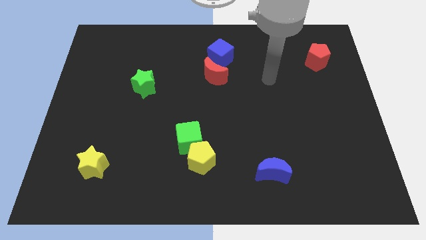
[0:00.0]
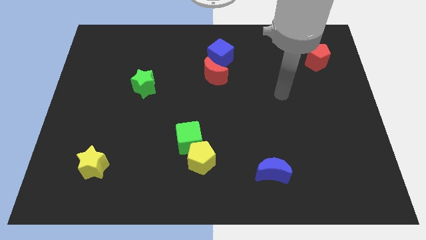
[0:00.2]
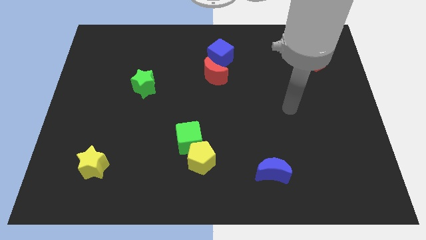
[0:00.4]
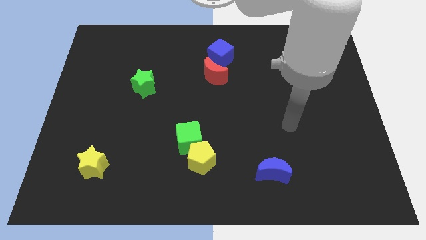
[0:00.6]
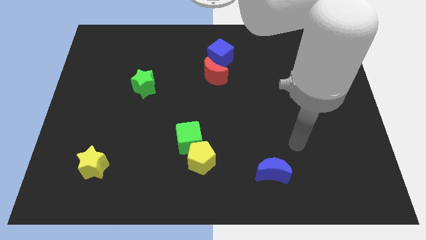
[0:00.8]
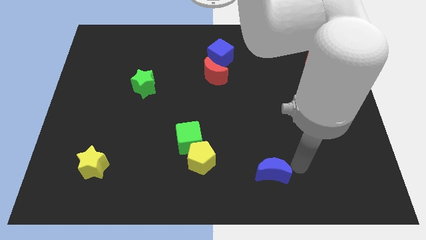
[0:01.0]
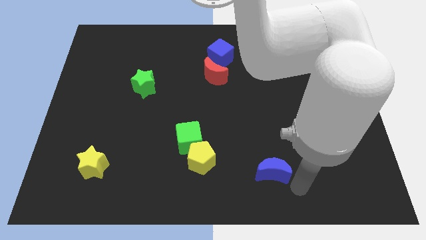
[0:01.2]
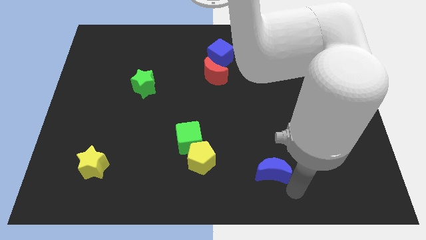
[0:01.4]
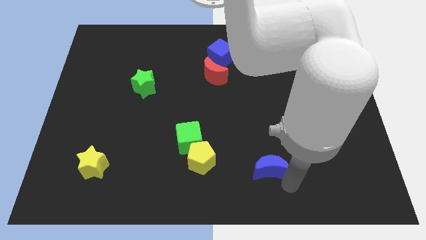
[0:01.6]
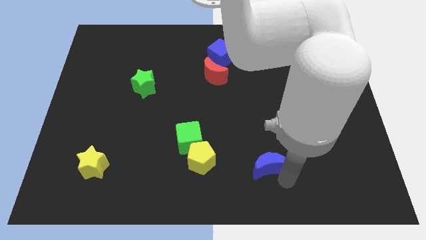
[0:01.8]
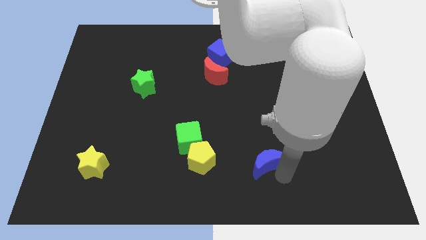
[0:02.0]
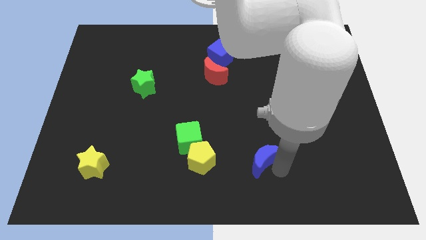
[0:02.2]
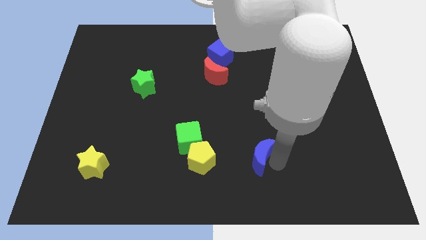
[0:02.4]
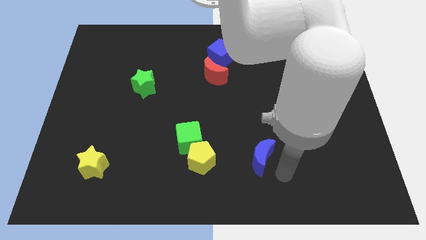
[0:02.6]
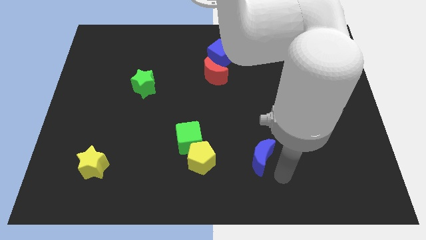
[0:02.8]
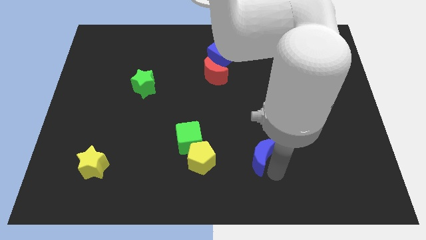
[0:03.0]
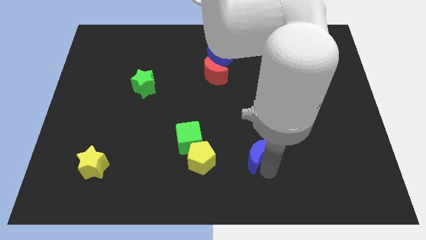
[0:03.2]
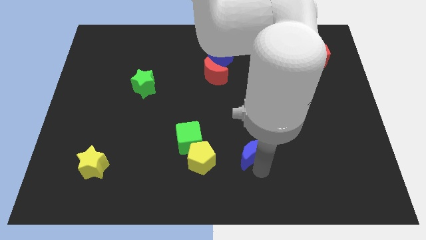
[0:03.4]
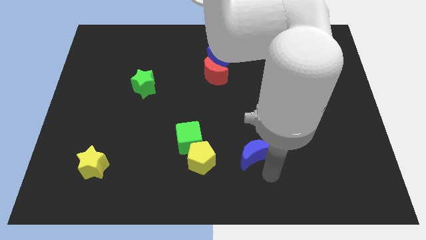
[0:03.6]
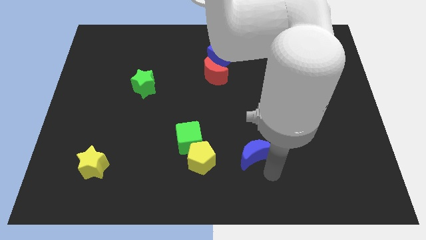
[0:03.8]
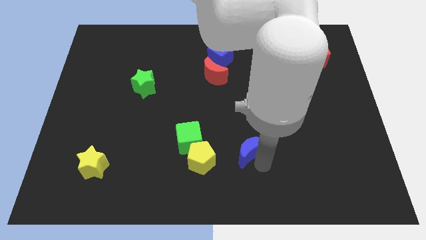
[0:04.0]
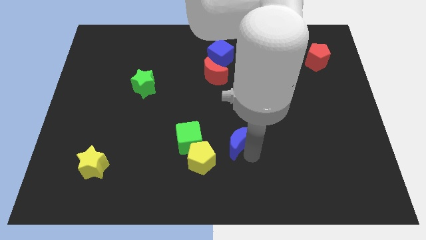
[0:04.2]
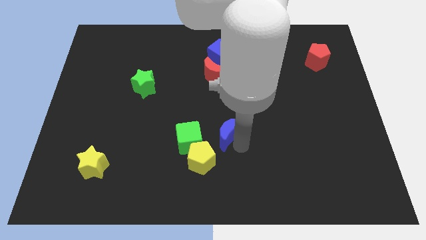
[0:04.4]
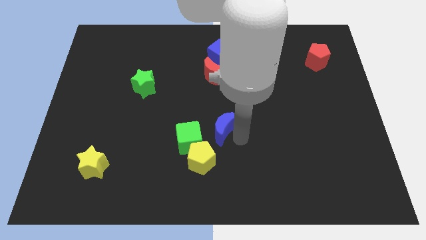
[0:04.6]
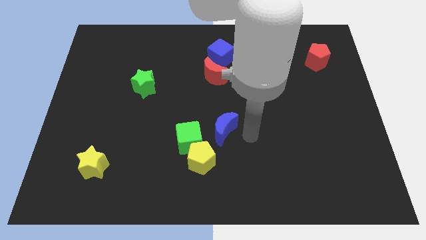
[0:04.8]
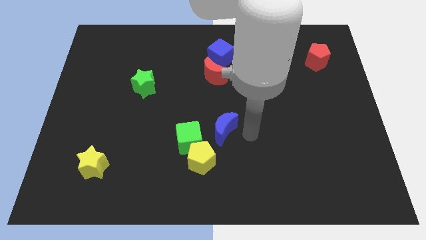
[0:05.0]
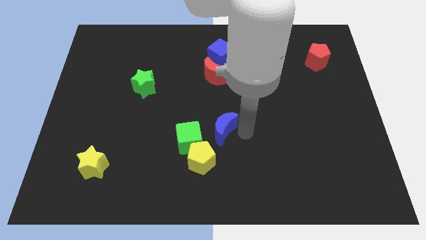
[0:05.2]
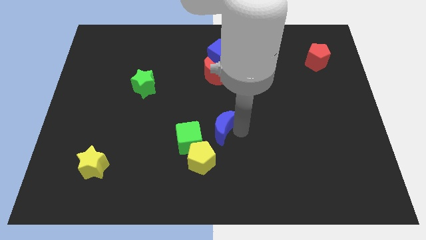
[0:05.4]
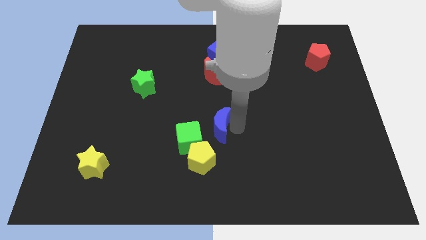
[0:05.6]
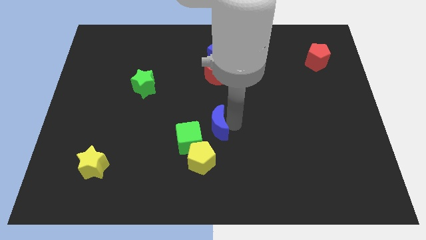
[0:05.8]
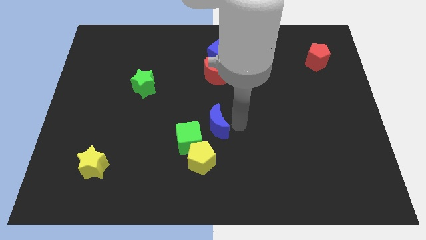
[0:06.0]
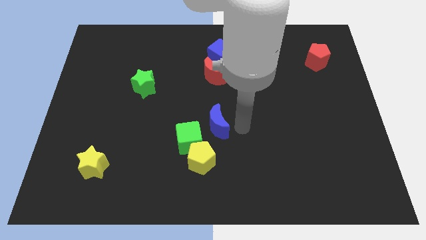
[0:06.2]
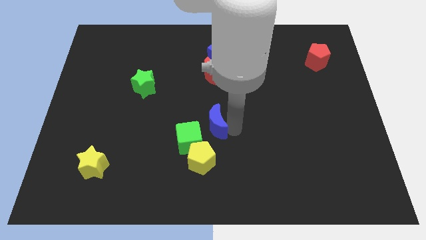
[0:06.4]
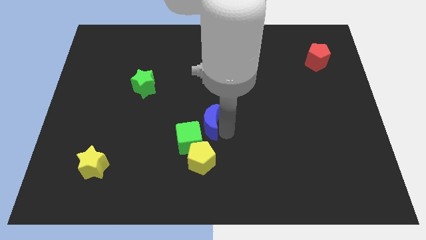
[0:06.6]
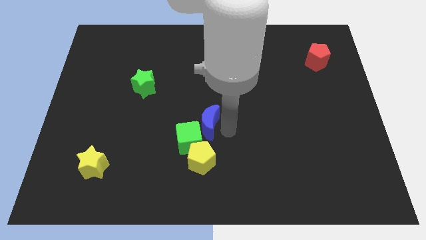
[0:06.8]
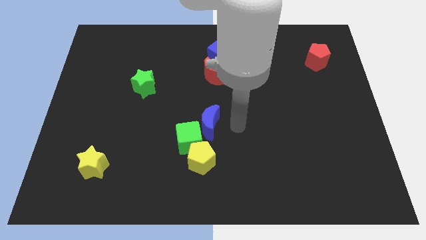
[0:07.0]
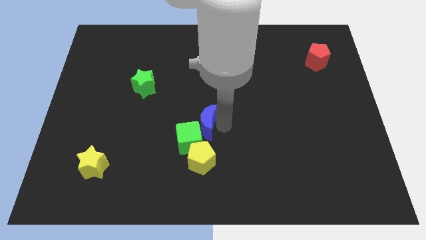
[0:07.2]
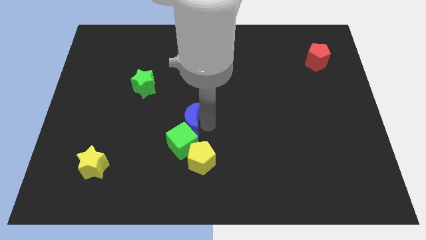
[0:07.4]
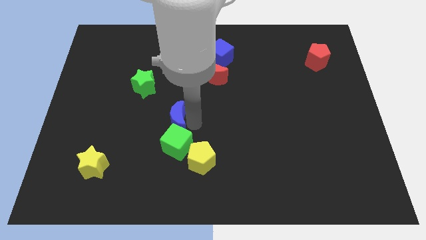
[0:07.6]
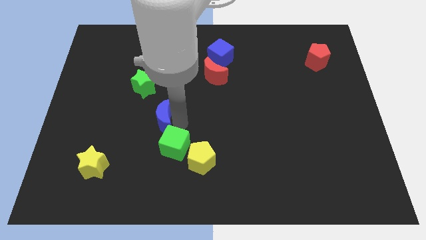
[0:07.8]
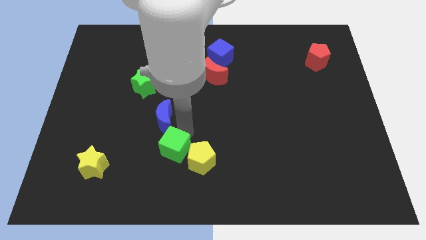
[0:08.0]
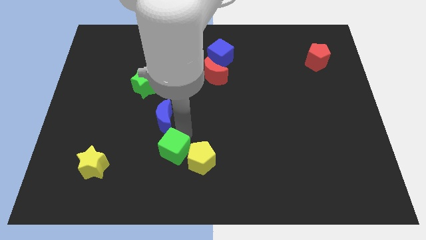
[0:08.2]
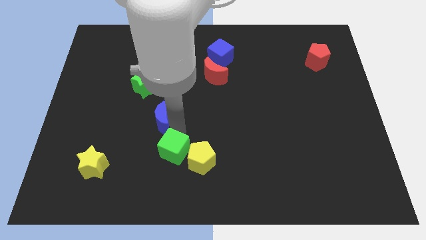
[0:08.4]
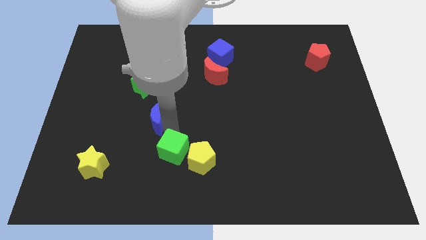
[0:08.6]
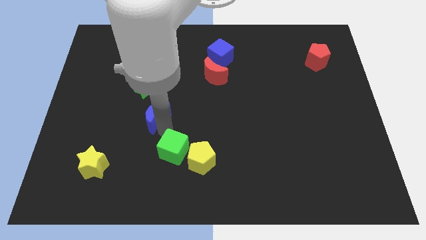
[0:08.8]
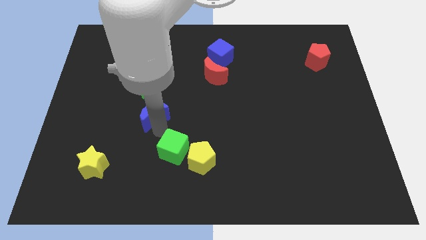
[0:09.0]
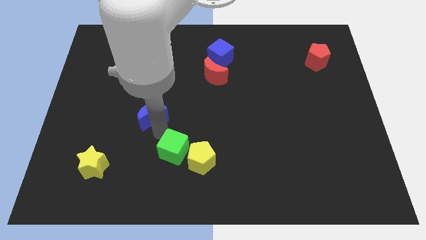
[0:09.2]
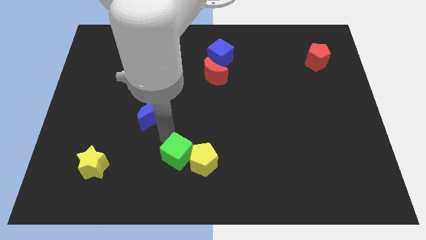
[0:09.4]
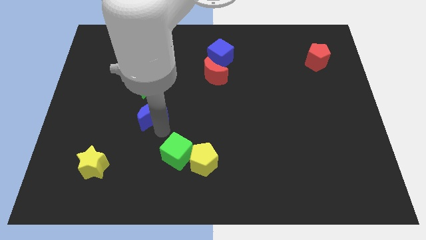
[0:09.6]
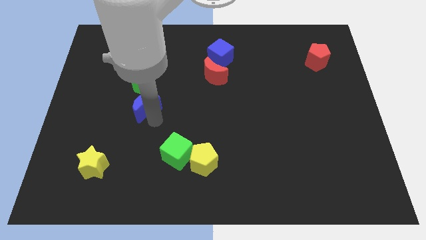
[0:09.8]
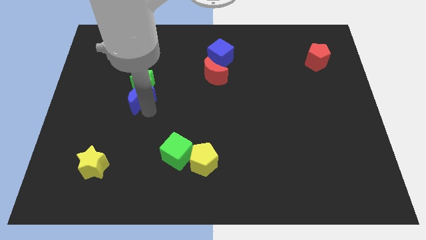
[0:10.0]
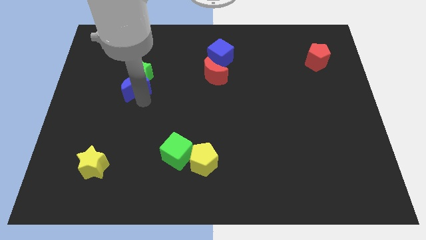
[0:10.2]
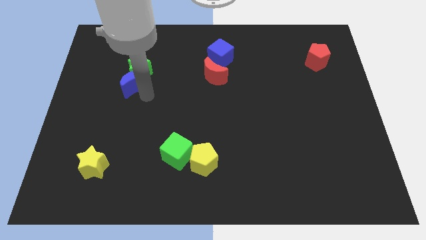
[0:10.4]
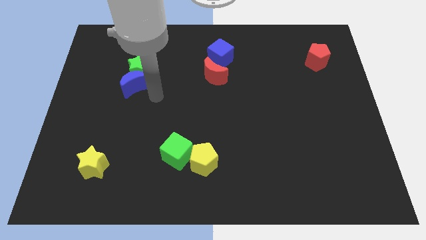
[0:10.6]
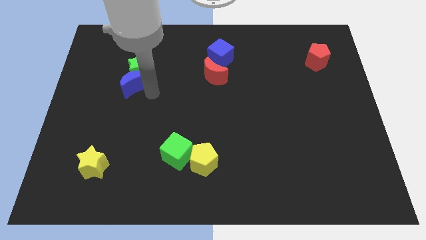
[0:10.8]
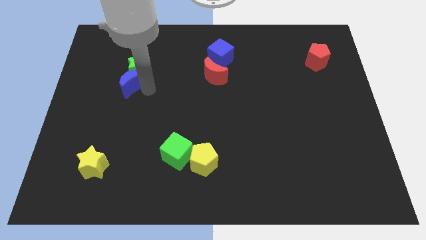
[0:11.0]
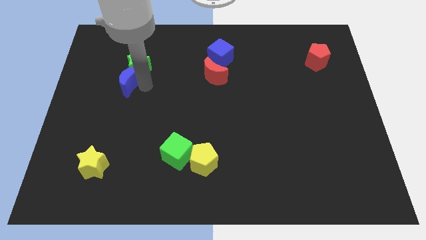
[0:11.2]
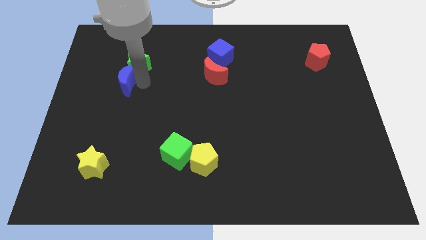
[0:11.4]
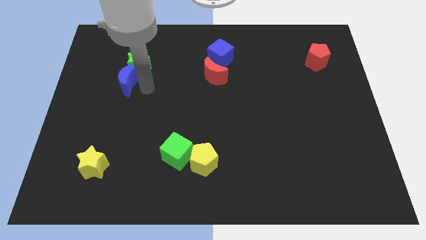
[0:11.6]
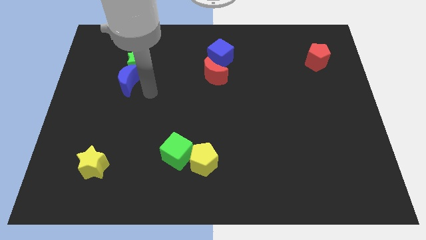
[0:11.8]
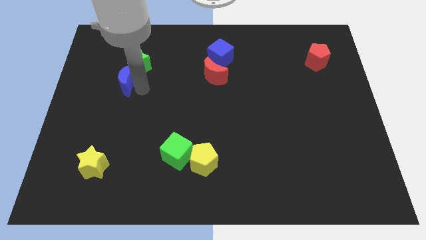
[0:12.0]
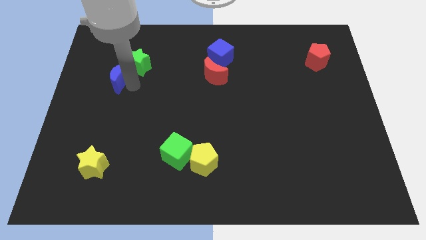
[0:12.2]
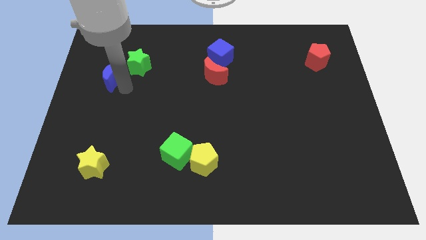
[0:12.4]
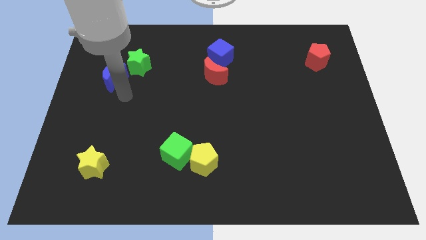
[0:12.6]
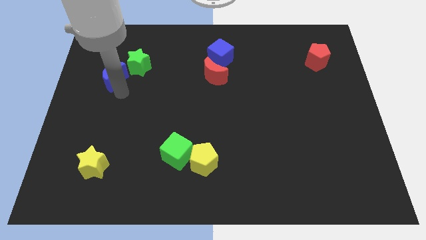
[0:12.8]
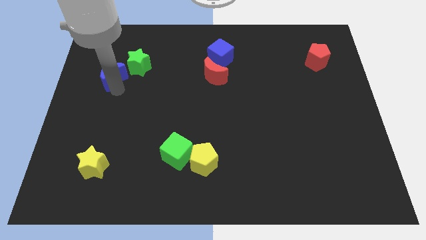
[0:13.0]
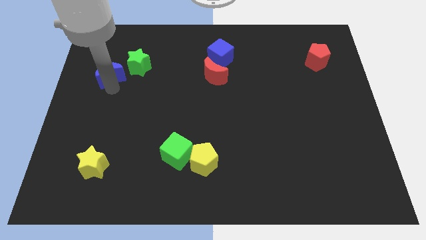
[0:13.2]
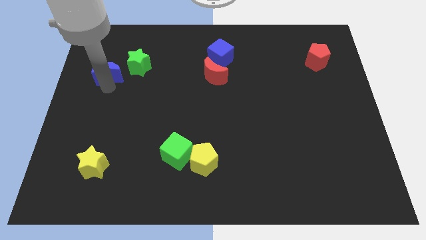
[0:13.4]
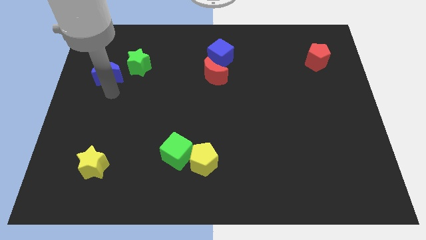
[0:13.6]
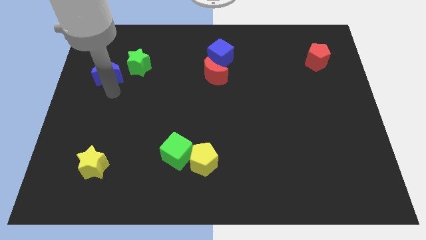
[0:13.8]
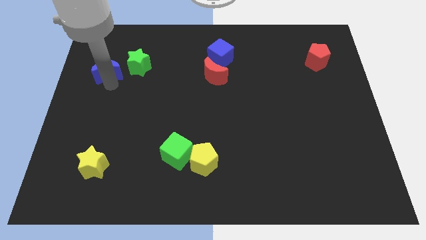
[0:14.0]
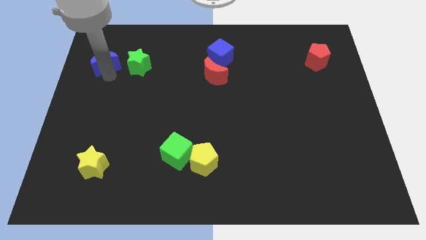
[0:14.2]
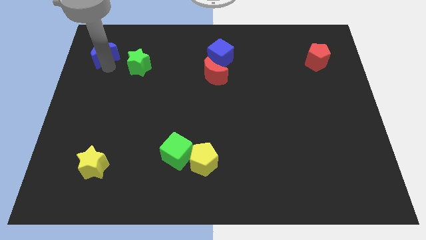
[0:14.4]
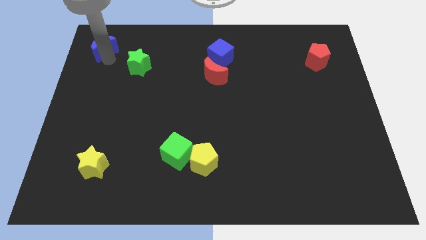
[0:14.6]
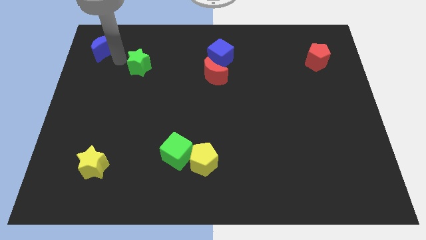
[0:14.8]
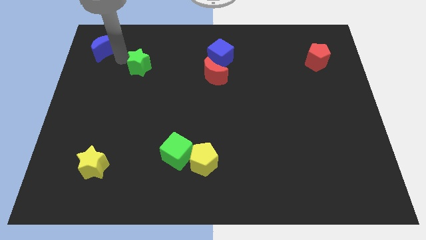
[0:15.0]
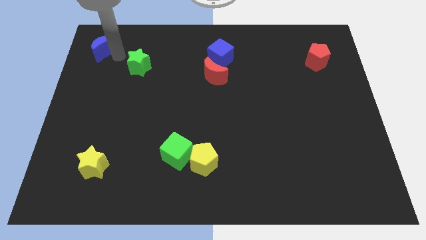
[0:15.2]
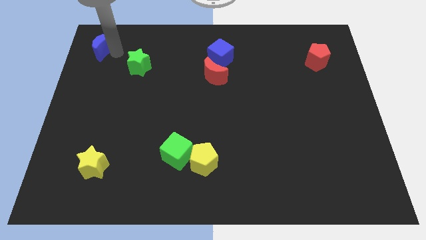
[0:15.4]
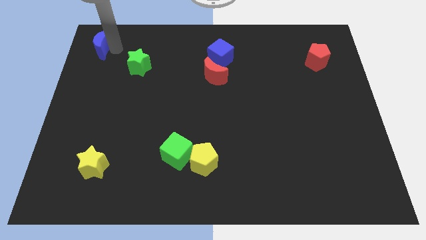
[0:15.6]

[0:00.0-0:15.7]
push the blue moon to the upper left corner
